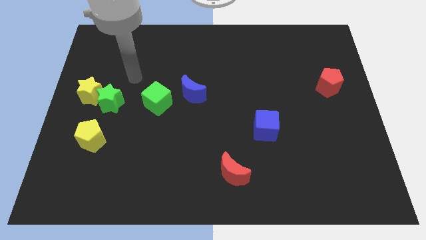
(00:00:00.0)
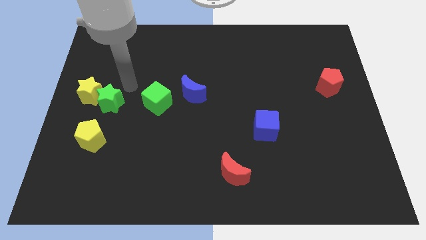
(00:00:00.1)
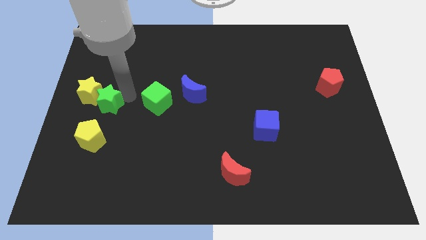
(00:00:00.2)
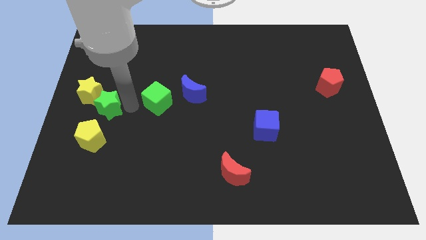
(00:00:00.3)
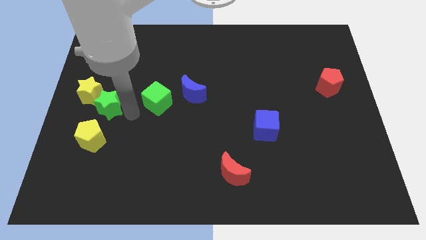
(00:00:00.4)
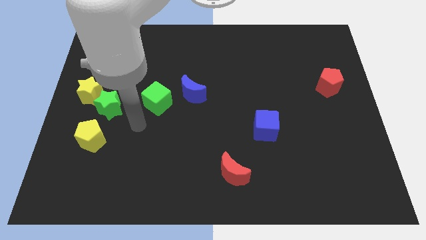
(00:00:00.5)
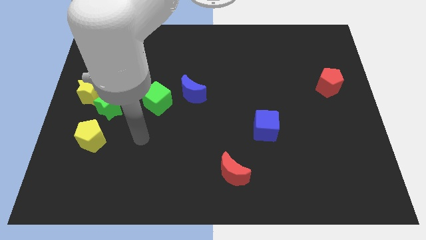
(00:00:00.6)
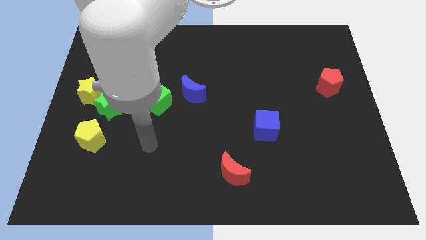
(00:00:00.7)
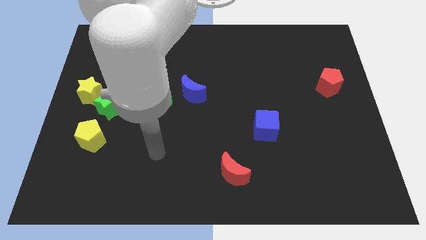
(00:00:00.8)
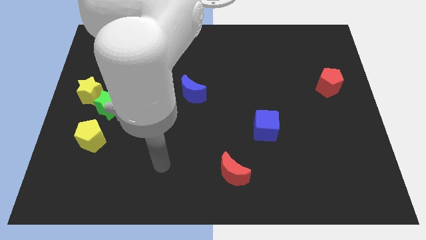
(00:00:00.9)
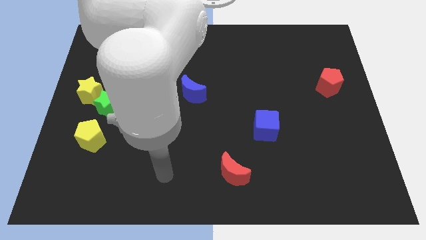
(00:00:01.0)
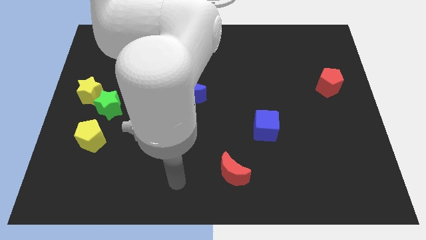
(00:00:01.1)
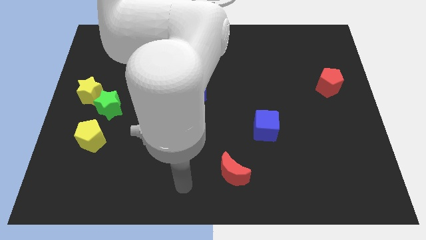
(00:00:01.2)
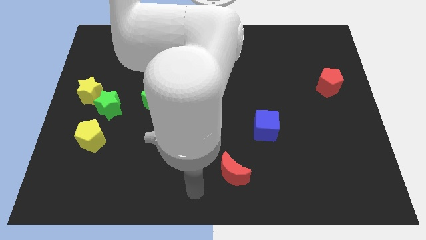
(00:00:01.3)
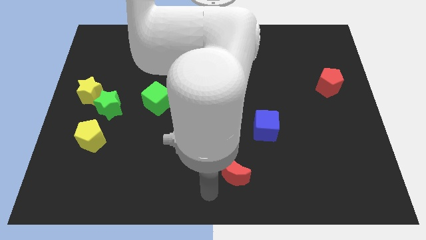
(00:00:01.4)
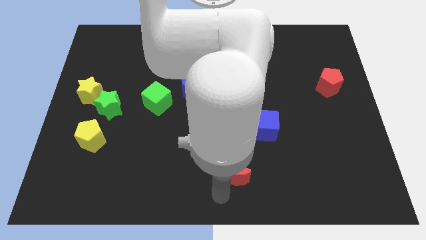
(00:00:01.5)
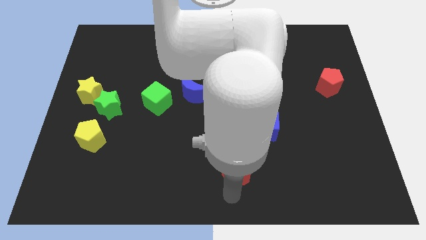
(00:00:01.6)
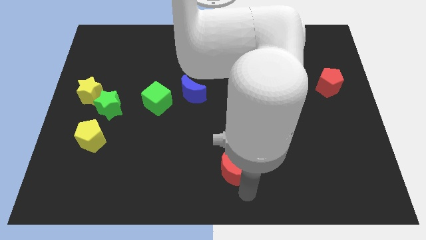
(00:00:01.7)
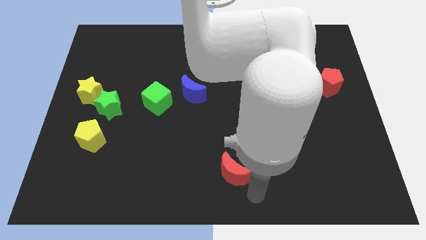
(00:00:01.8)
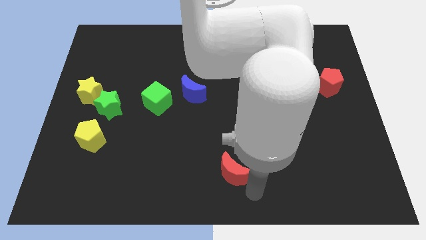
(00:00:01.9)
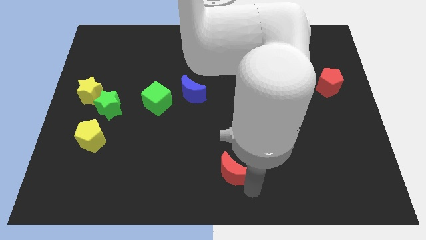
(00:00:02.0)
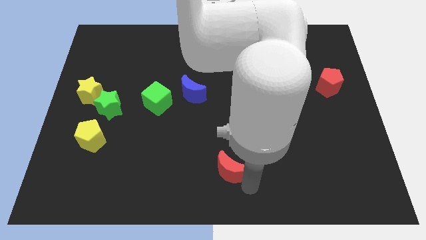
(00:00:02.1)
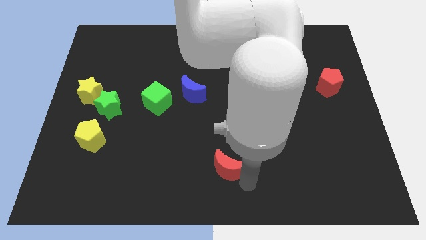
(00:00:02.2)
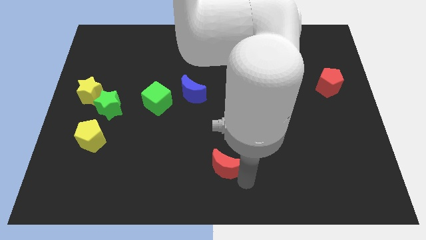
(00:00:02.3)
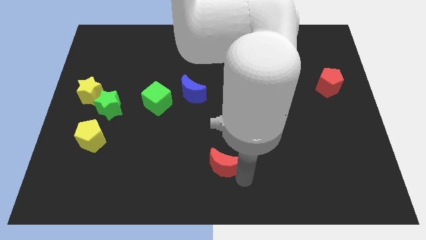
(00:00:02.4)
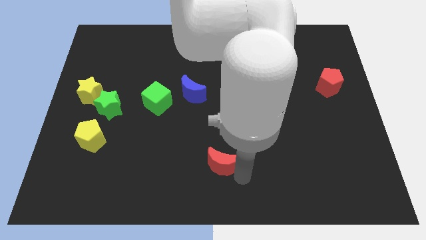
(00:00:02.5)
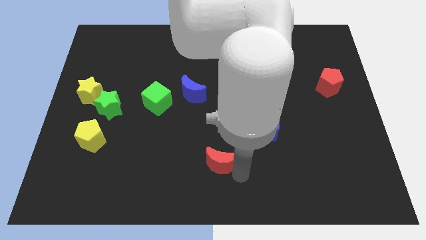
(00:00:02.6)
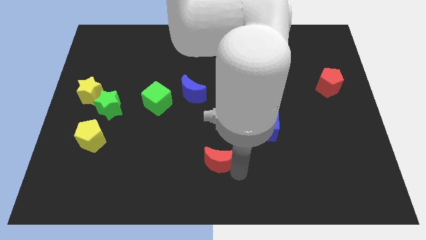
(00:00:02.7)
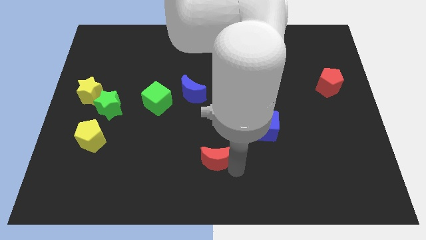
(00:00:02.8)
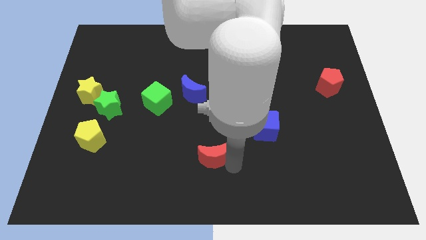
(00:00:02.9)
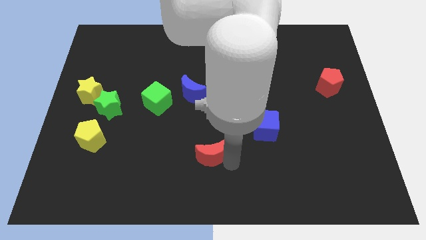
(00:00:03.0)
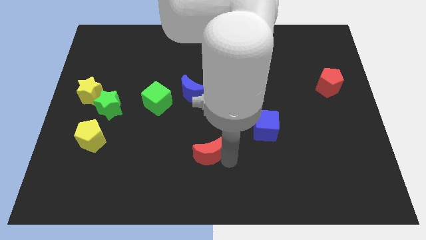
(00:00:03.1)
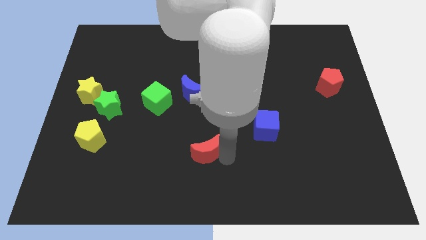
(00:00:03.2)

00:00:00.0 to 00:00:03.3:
slightly move the red moon upwards and then left

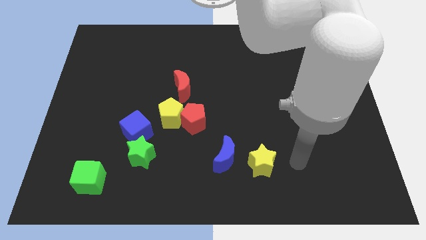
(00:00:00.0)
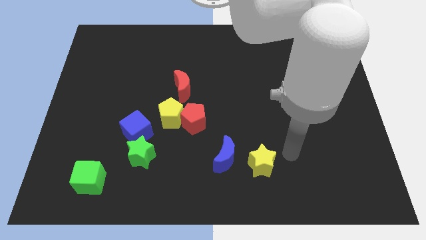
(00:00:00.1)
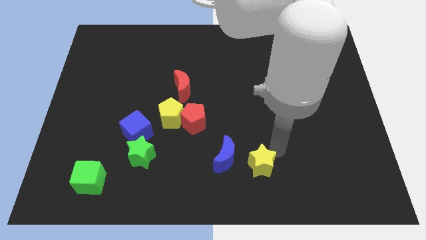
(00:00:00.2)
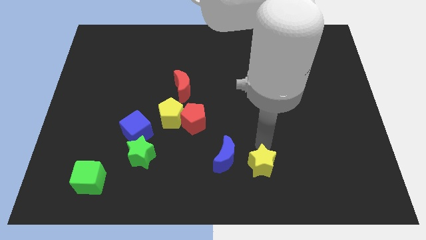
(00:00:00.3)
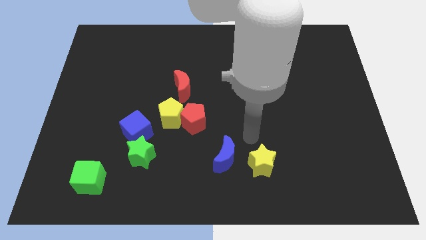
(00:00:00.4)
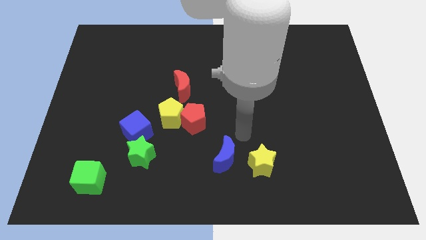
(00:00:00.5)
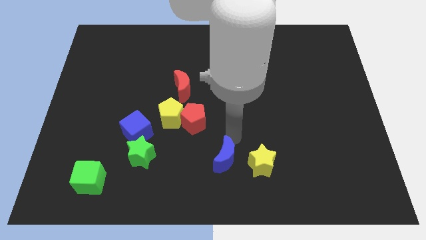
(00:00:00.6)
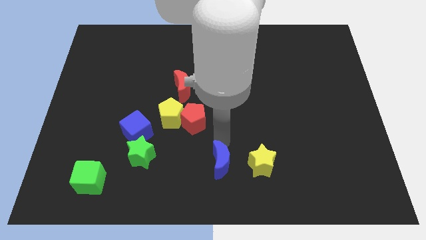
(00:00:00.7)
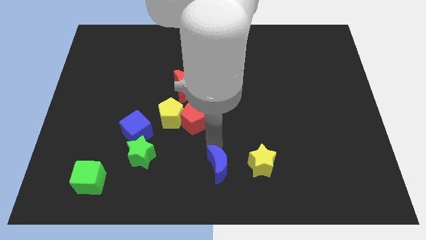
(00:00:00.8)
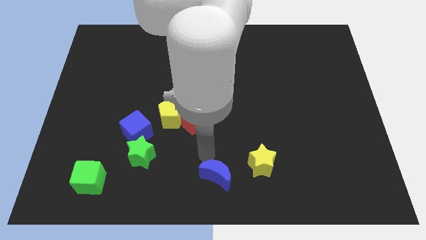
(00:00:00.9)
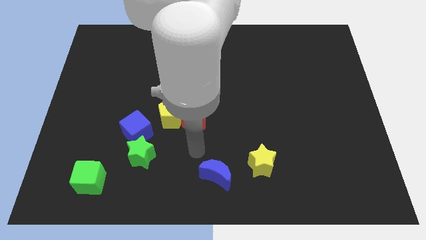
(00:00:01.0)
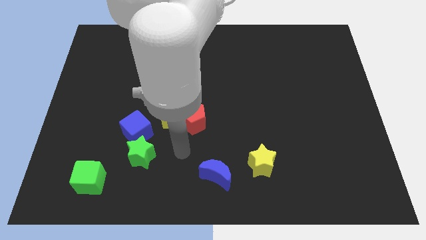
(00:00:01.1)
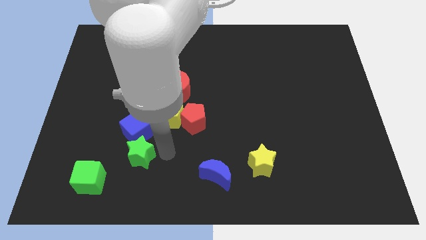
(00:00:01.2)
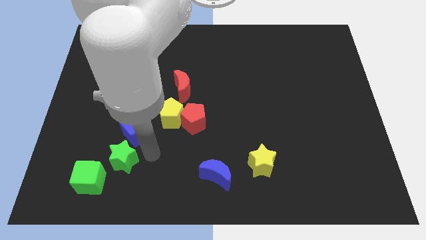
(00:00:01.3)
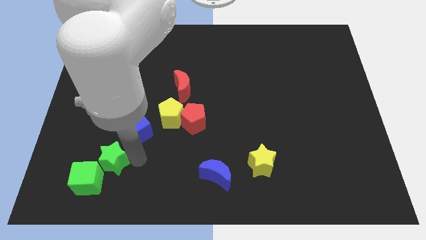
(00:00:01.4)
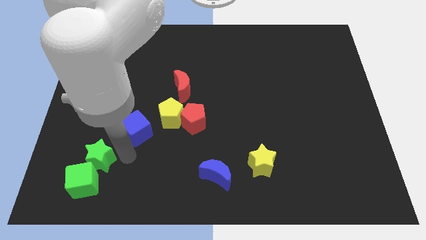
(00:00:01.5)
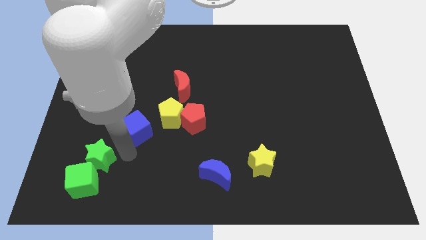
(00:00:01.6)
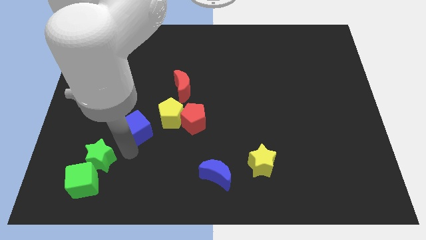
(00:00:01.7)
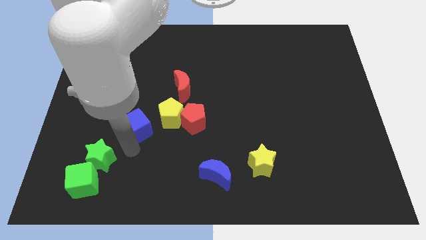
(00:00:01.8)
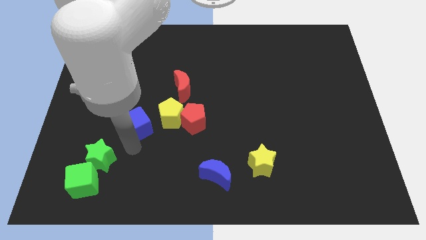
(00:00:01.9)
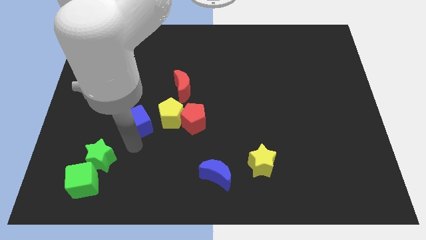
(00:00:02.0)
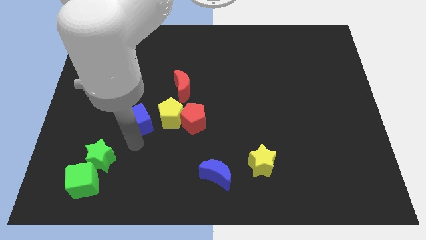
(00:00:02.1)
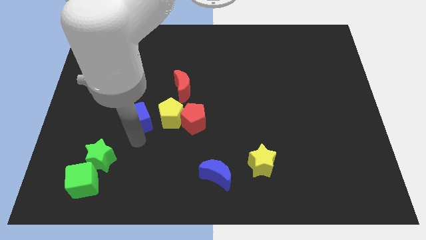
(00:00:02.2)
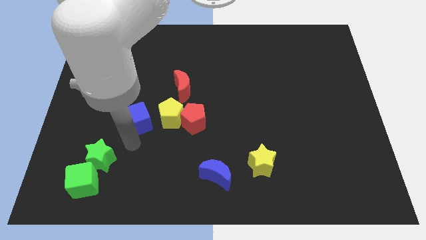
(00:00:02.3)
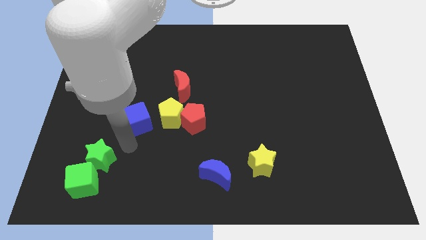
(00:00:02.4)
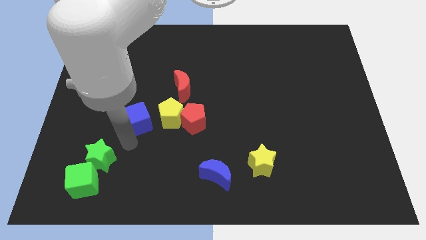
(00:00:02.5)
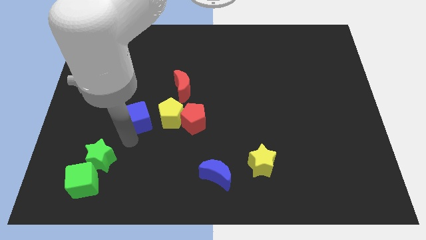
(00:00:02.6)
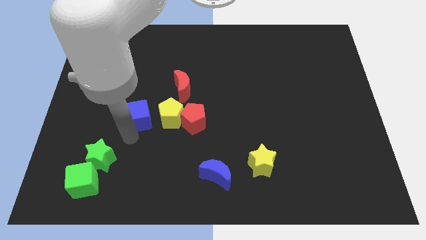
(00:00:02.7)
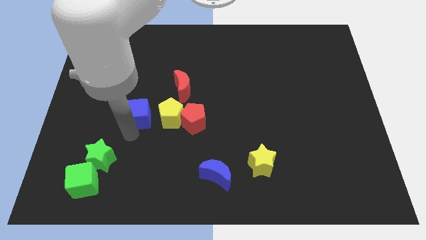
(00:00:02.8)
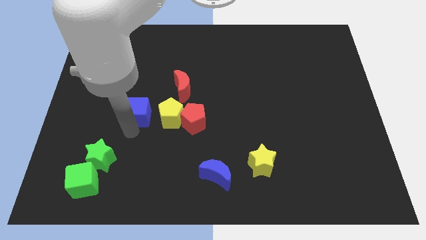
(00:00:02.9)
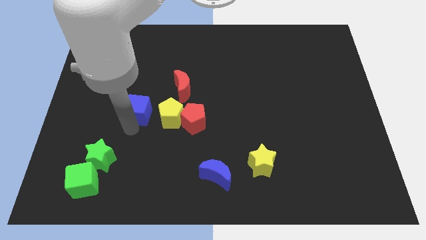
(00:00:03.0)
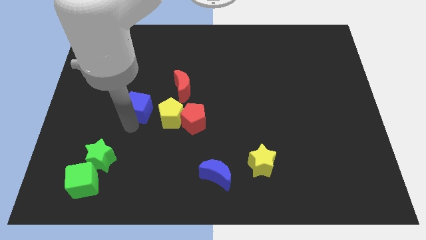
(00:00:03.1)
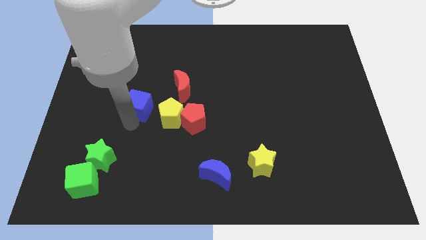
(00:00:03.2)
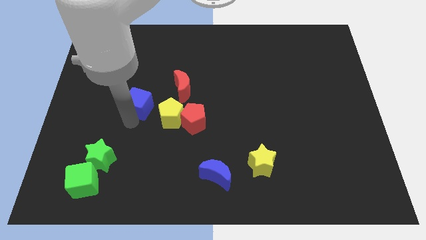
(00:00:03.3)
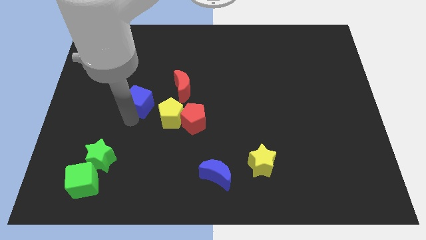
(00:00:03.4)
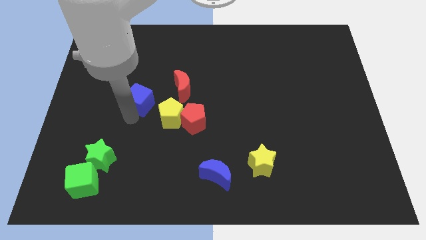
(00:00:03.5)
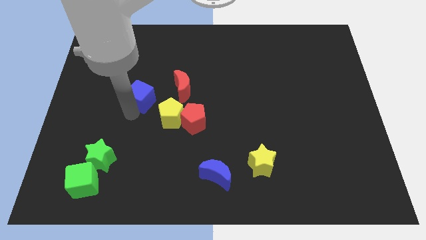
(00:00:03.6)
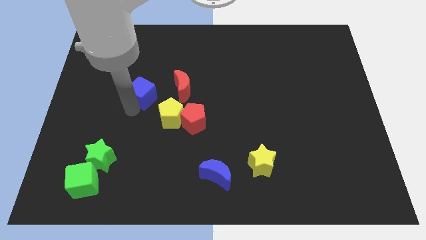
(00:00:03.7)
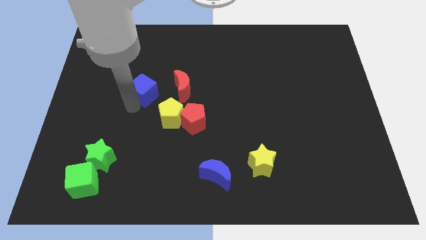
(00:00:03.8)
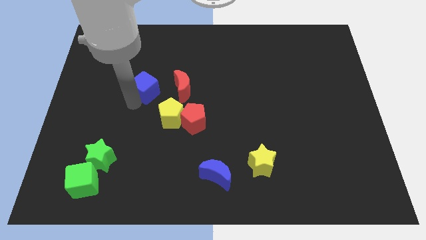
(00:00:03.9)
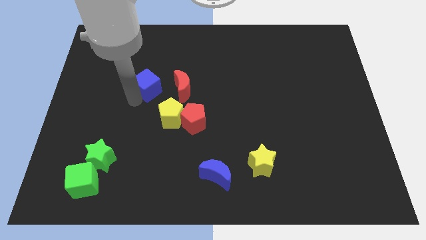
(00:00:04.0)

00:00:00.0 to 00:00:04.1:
push the blue cube upwards and right diagonally somewhat

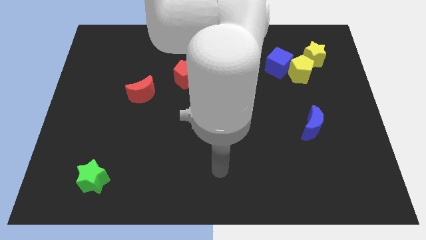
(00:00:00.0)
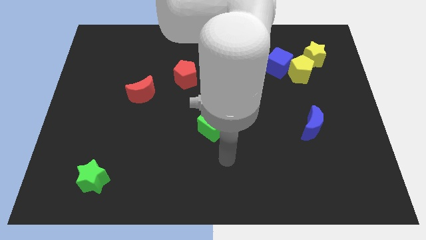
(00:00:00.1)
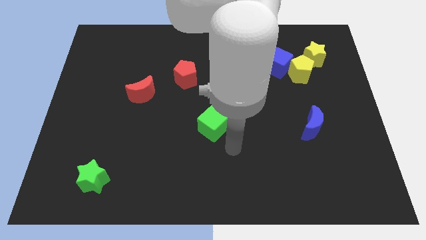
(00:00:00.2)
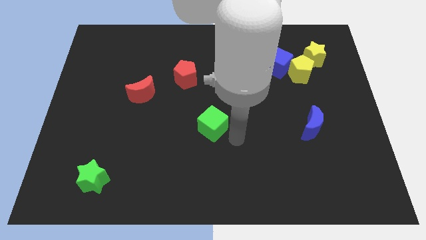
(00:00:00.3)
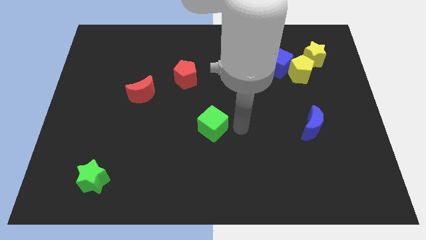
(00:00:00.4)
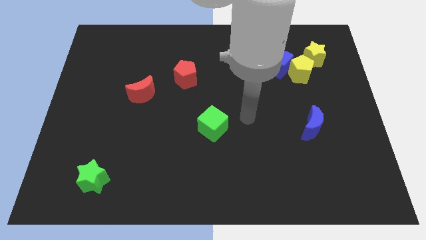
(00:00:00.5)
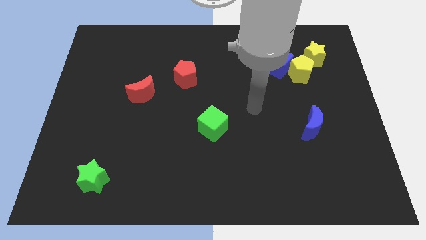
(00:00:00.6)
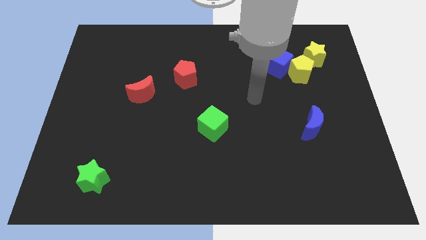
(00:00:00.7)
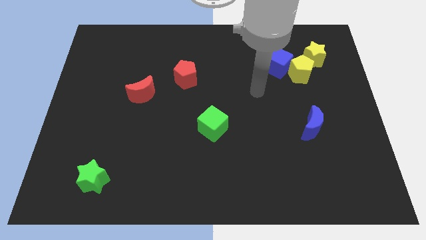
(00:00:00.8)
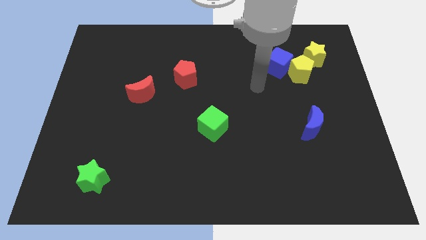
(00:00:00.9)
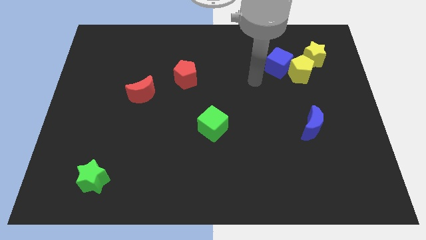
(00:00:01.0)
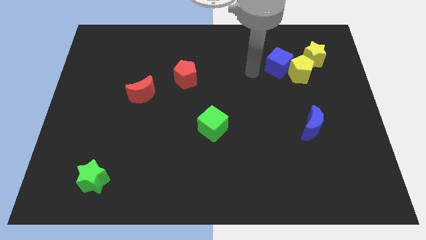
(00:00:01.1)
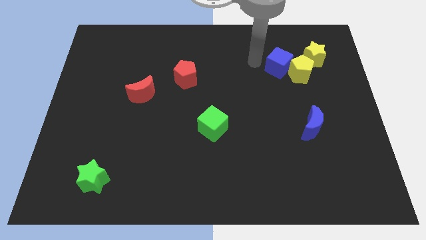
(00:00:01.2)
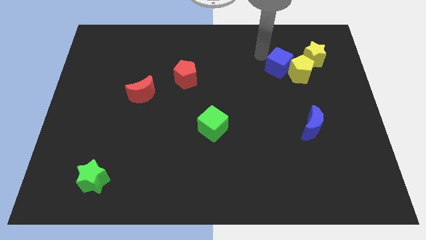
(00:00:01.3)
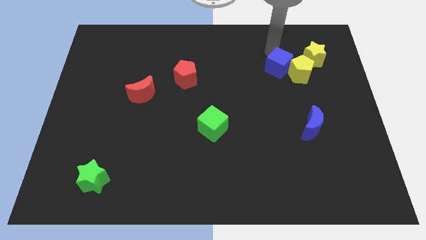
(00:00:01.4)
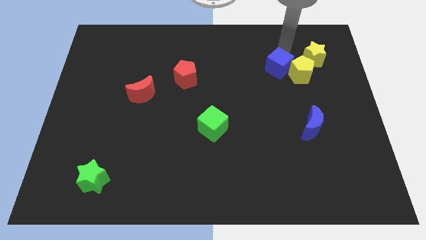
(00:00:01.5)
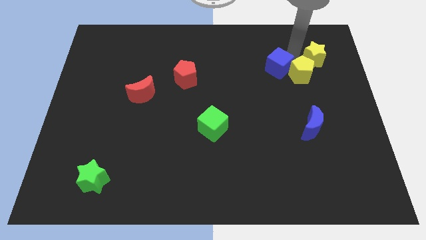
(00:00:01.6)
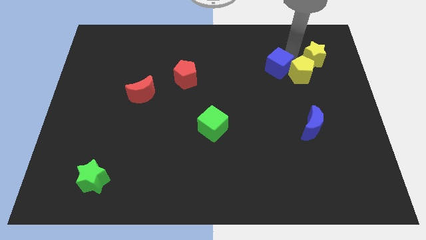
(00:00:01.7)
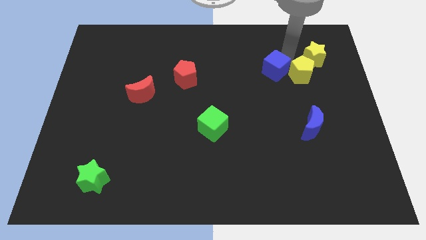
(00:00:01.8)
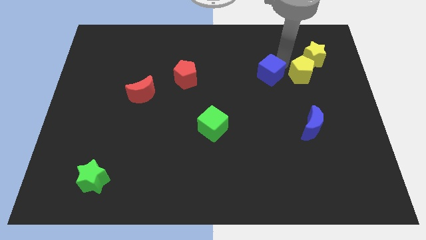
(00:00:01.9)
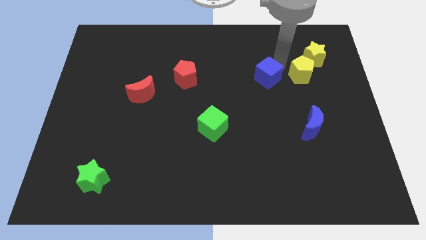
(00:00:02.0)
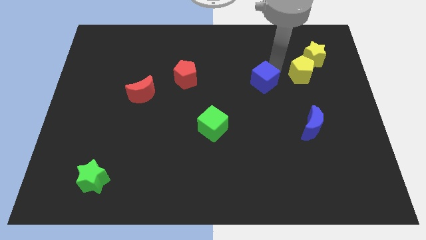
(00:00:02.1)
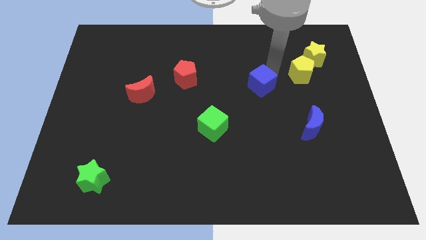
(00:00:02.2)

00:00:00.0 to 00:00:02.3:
push the blue cube a bit downwards and then left
